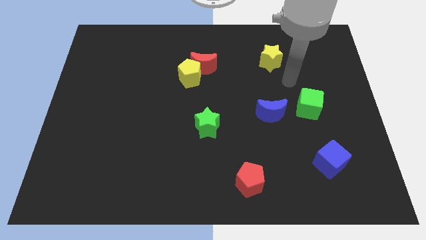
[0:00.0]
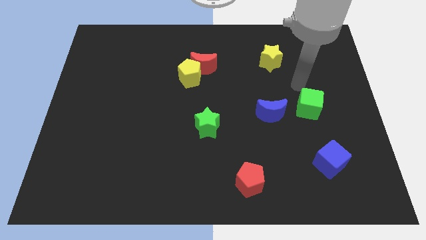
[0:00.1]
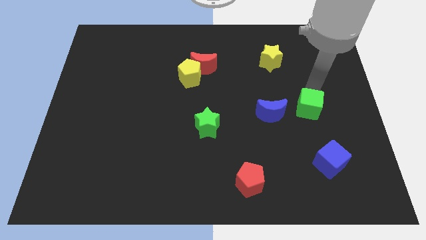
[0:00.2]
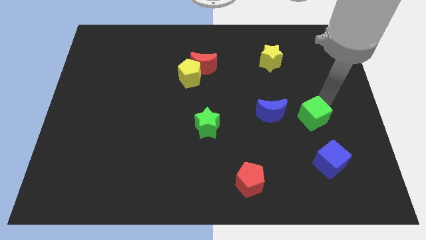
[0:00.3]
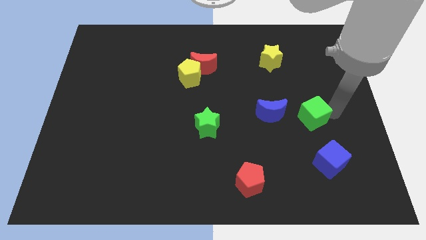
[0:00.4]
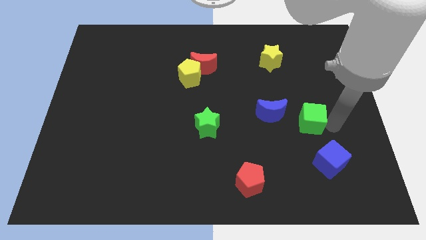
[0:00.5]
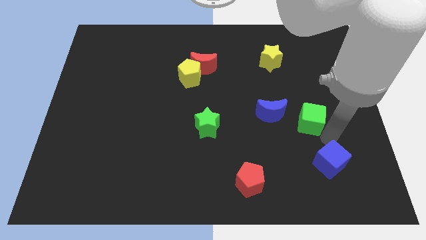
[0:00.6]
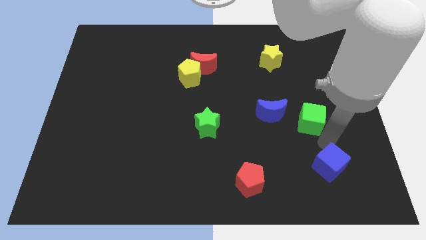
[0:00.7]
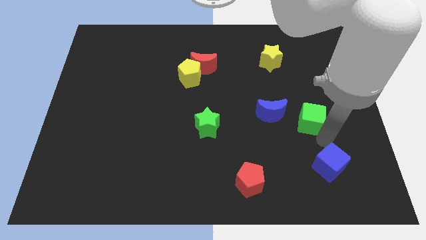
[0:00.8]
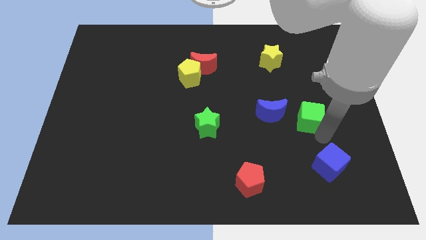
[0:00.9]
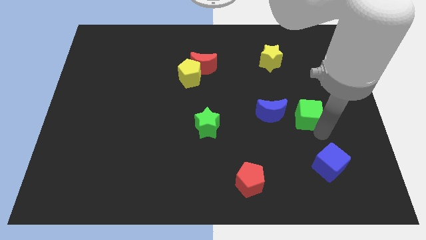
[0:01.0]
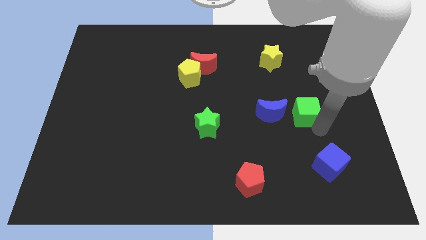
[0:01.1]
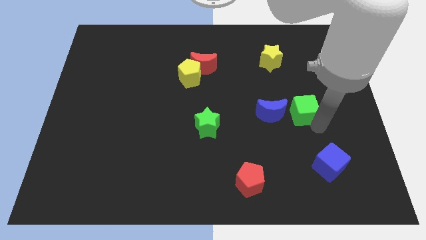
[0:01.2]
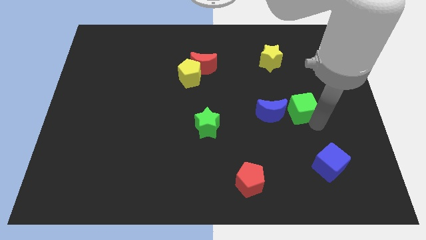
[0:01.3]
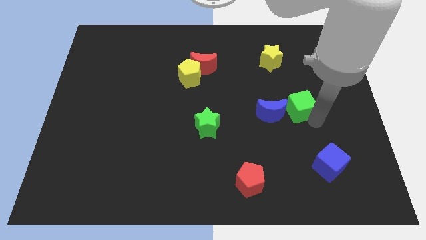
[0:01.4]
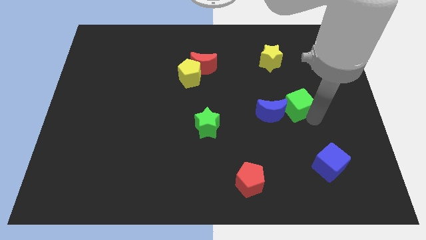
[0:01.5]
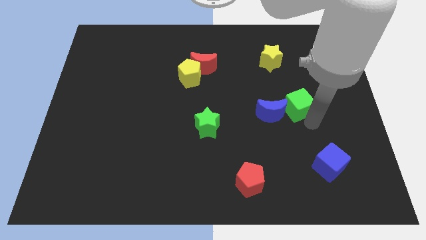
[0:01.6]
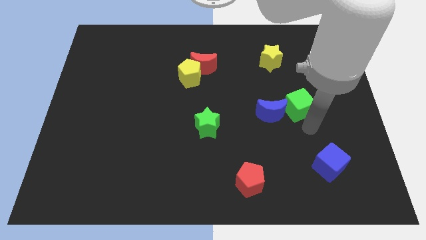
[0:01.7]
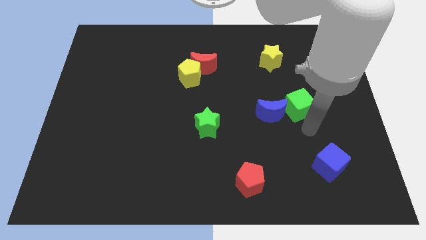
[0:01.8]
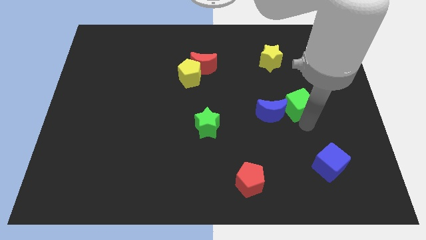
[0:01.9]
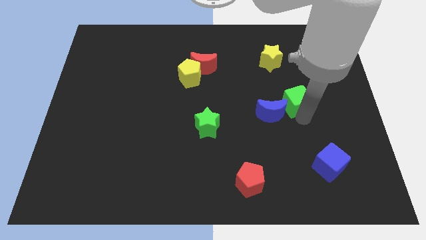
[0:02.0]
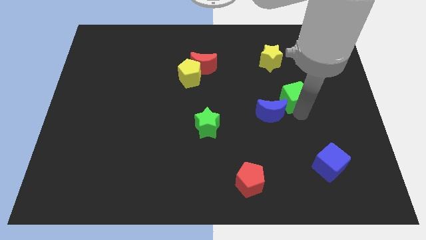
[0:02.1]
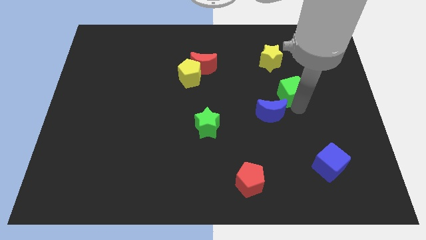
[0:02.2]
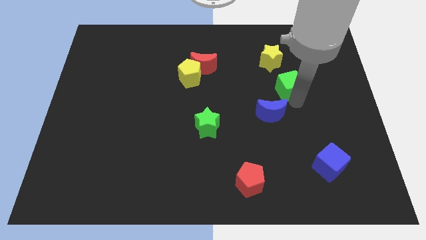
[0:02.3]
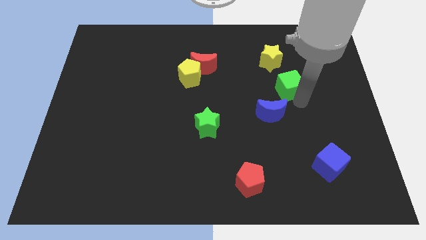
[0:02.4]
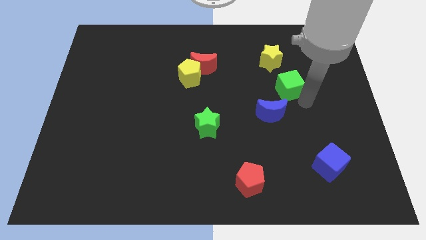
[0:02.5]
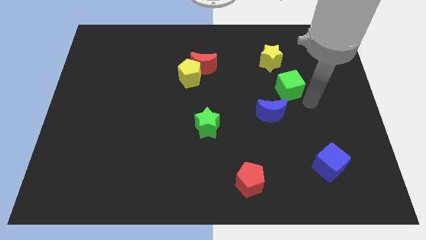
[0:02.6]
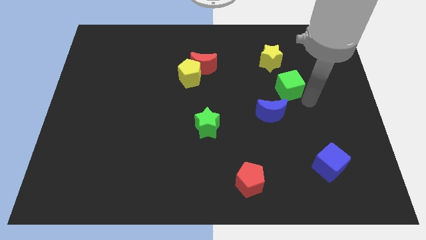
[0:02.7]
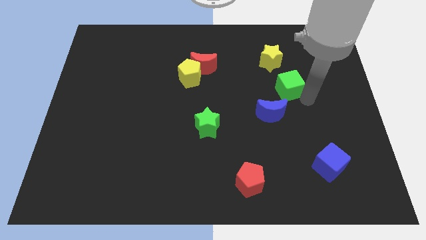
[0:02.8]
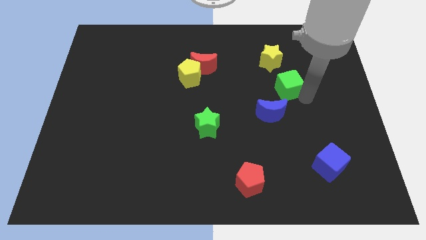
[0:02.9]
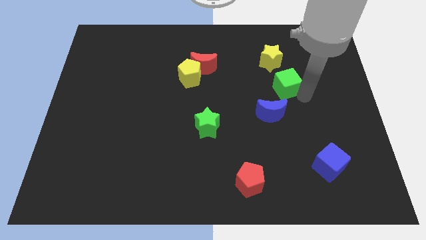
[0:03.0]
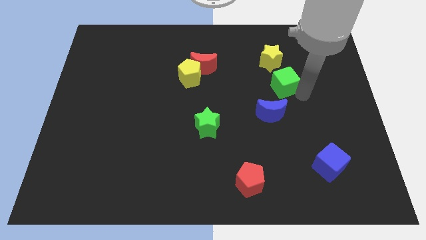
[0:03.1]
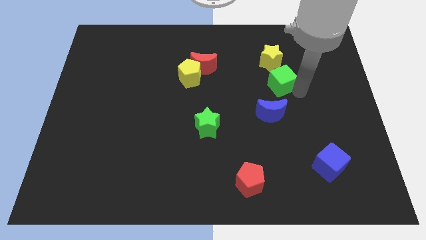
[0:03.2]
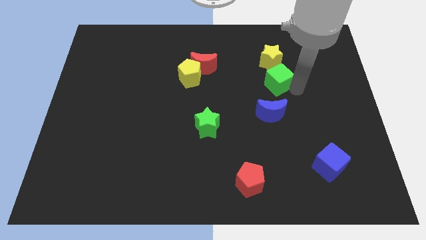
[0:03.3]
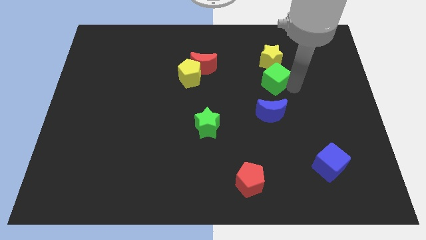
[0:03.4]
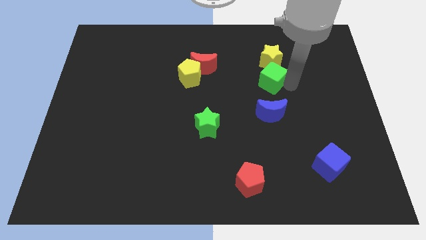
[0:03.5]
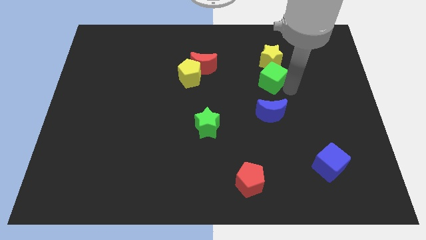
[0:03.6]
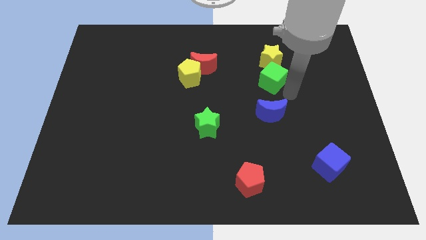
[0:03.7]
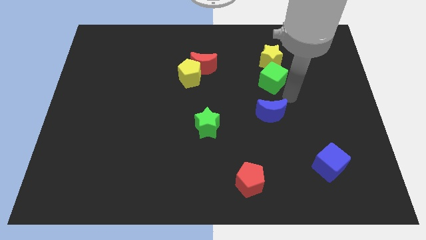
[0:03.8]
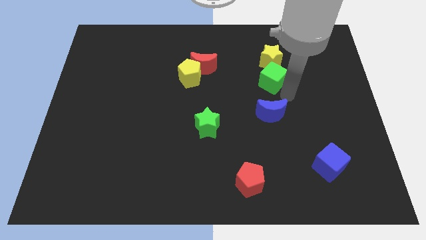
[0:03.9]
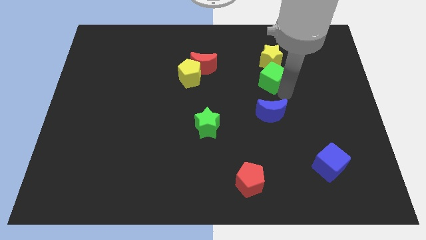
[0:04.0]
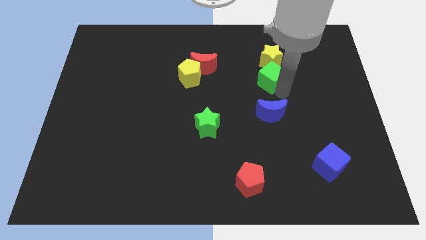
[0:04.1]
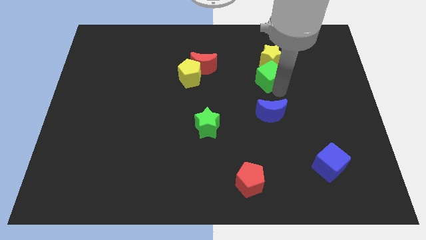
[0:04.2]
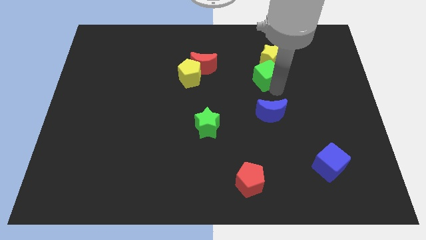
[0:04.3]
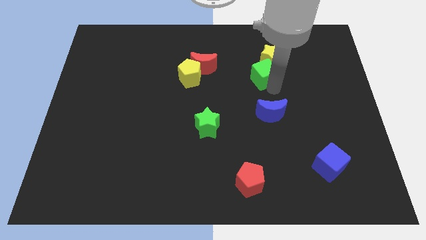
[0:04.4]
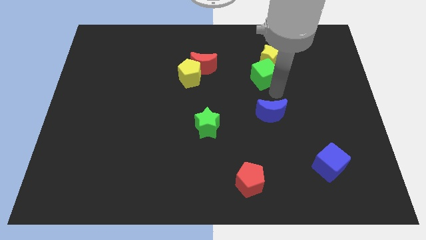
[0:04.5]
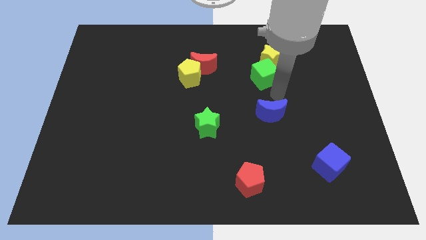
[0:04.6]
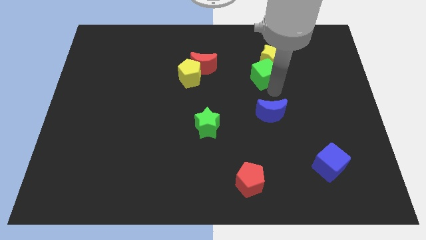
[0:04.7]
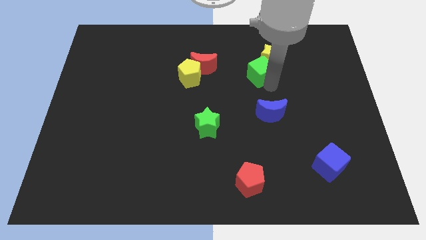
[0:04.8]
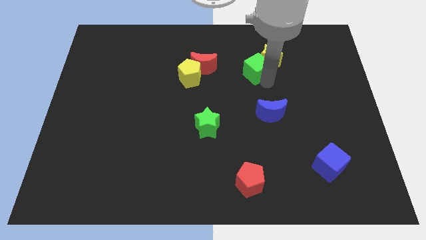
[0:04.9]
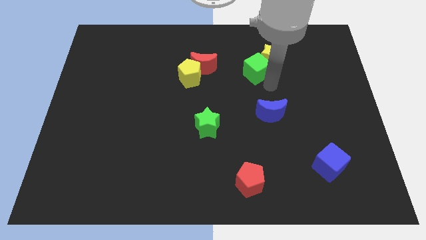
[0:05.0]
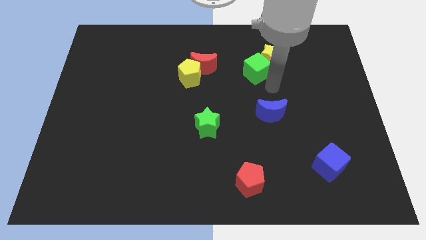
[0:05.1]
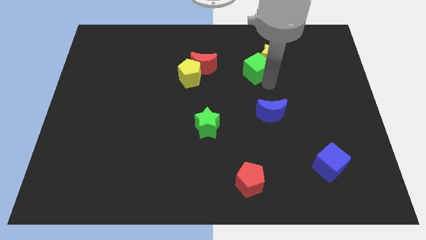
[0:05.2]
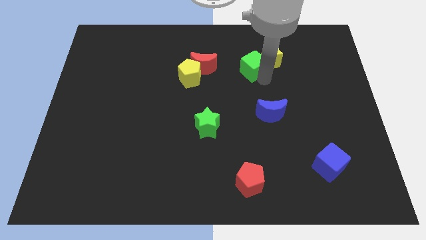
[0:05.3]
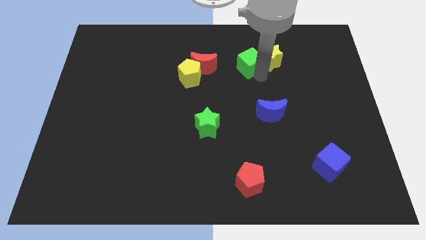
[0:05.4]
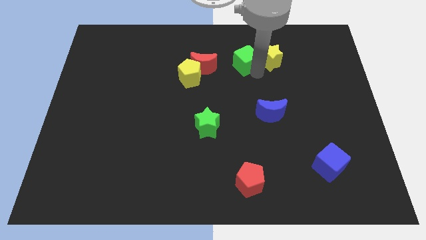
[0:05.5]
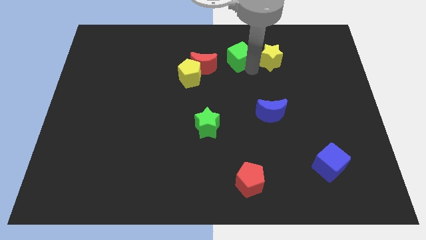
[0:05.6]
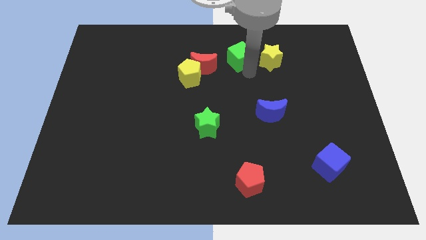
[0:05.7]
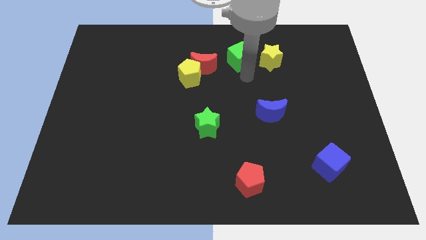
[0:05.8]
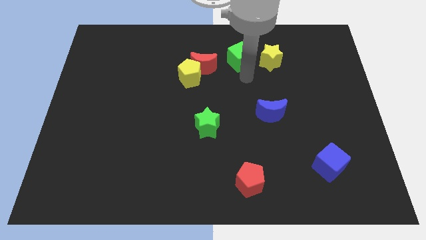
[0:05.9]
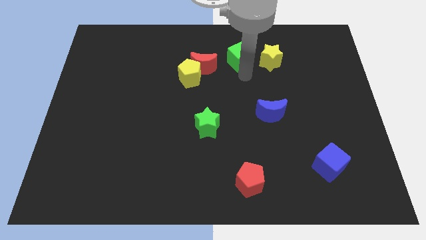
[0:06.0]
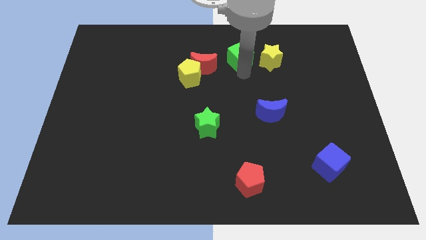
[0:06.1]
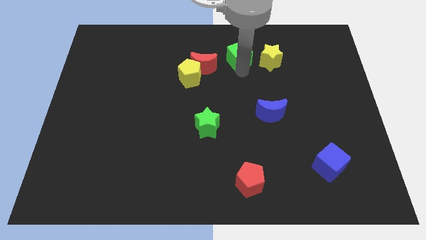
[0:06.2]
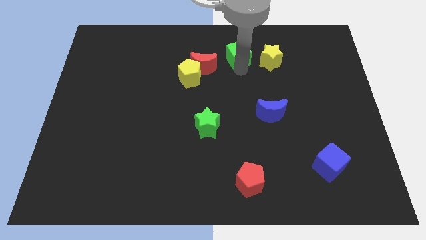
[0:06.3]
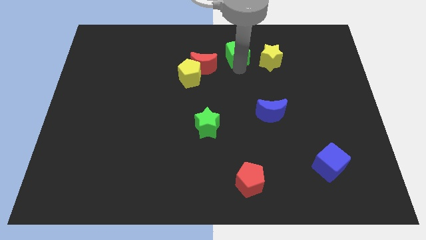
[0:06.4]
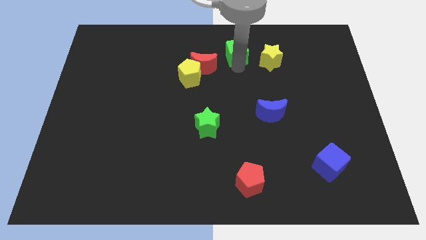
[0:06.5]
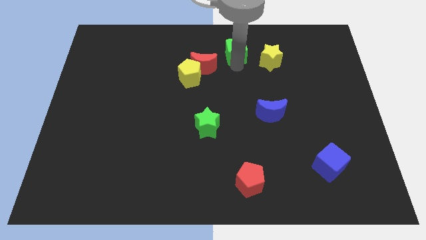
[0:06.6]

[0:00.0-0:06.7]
put the green cube to the towards your base
